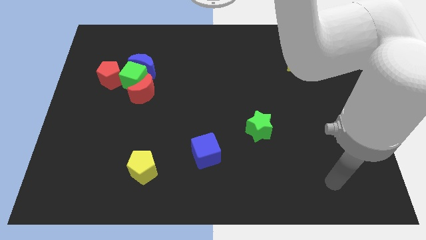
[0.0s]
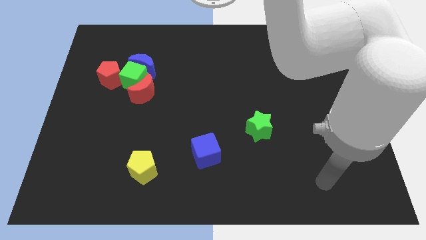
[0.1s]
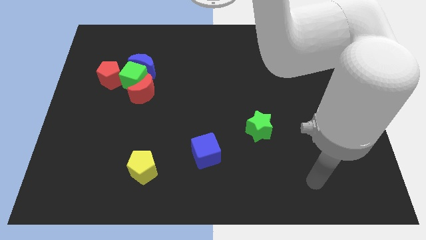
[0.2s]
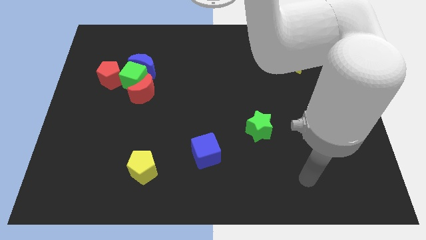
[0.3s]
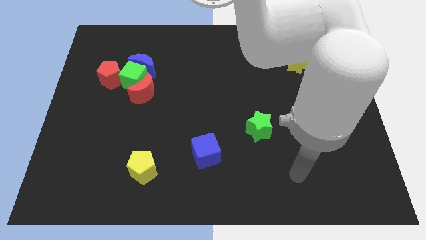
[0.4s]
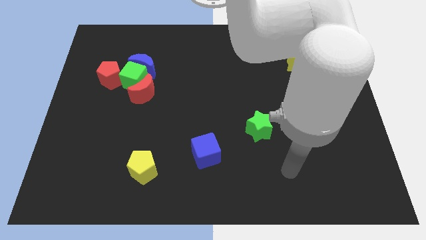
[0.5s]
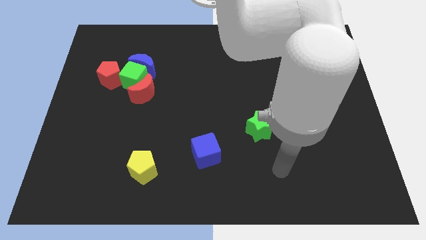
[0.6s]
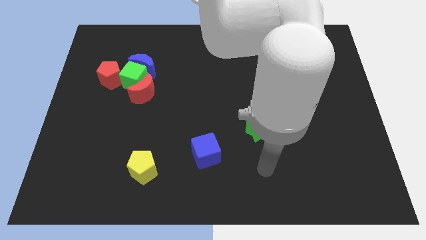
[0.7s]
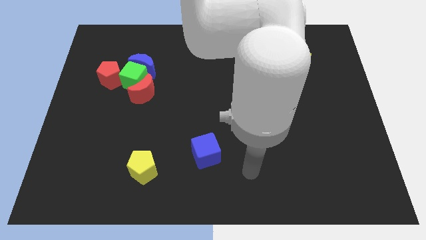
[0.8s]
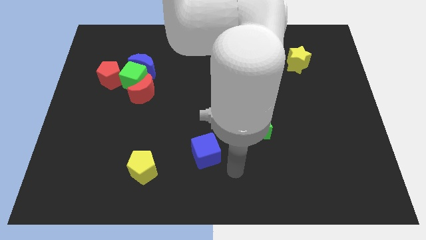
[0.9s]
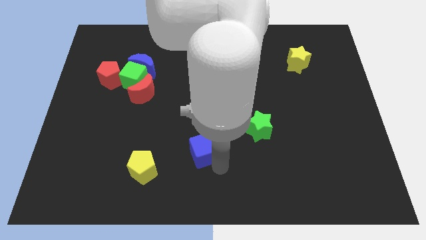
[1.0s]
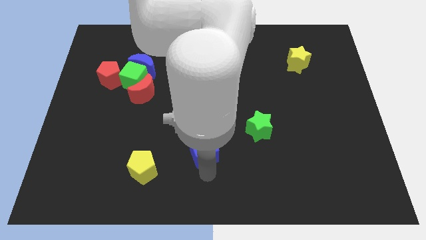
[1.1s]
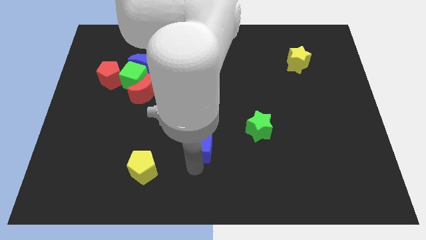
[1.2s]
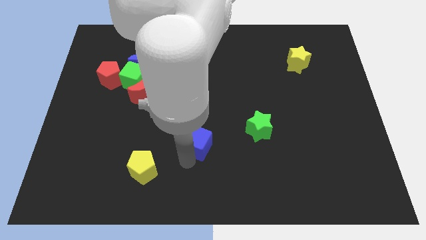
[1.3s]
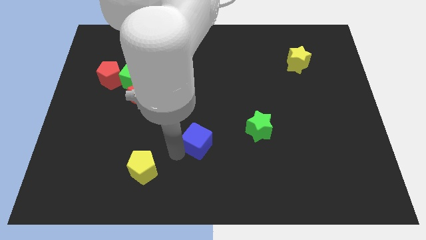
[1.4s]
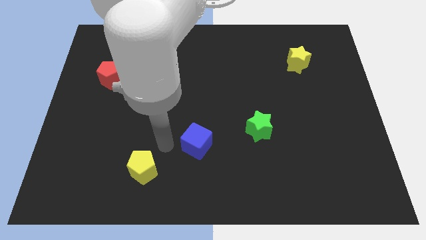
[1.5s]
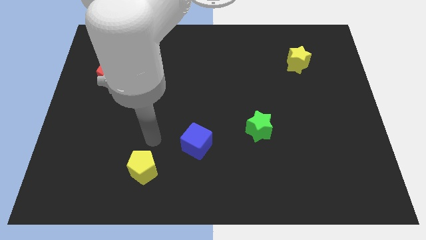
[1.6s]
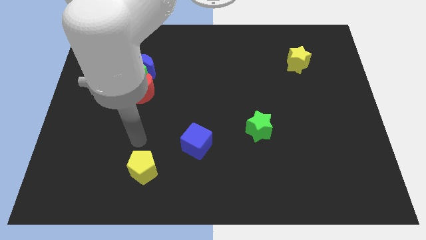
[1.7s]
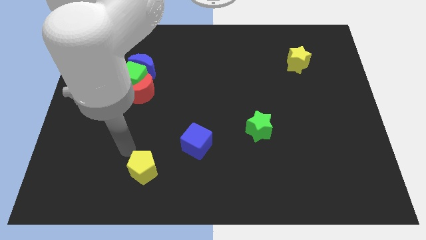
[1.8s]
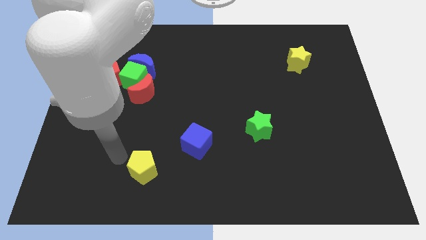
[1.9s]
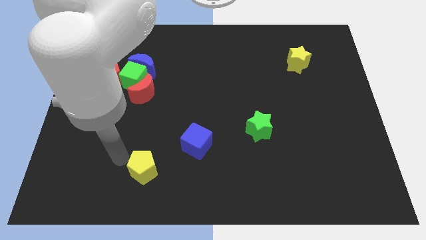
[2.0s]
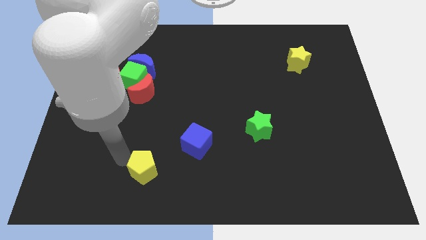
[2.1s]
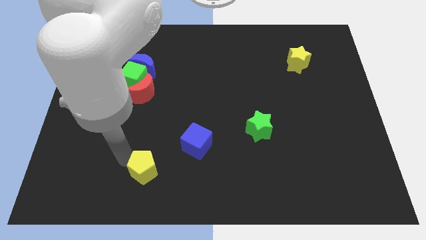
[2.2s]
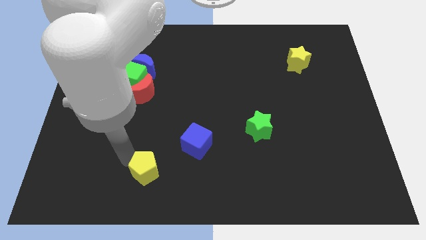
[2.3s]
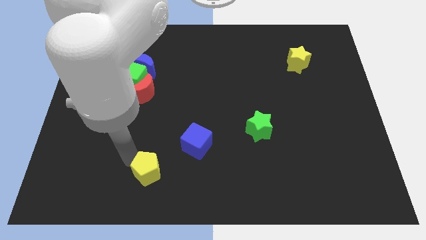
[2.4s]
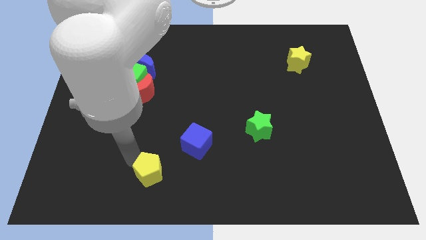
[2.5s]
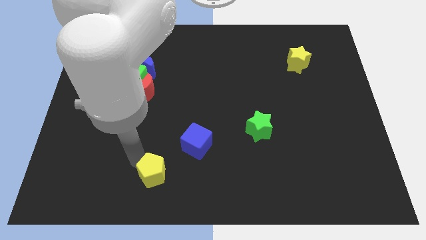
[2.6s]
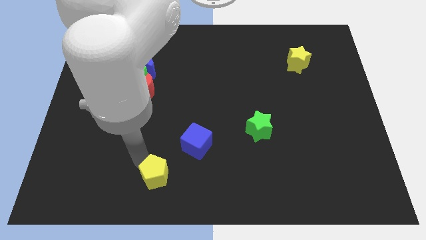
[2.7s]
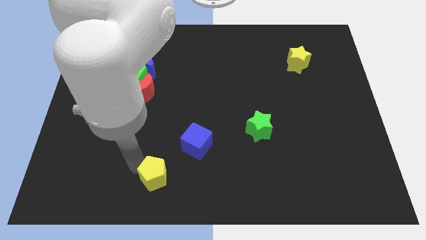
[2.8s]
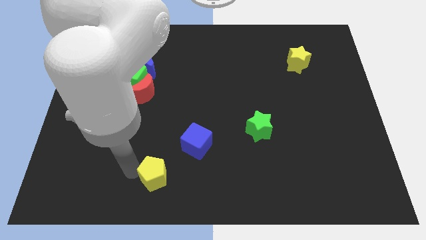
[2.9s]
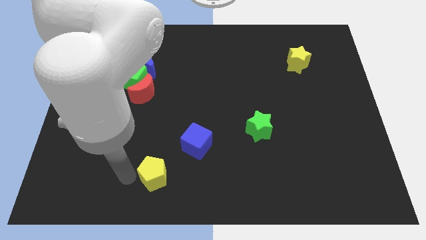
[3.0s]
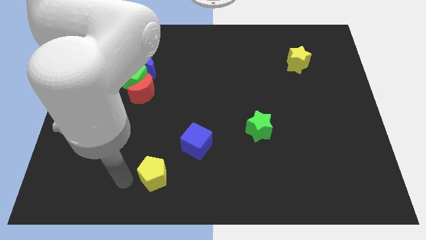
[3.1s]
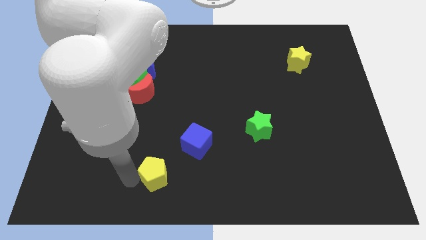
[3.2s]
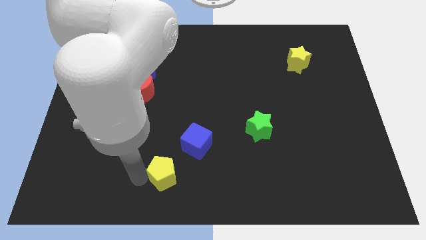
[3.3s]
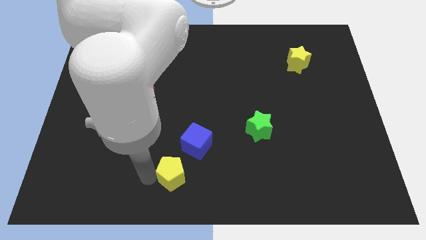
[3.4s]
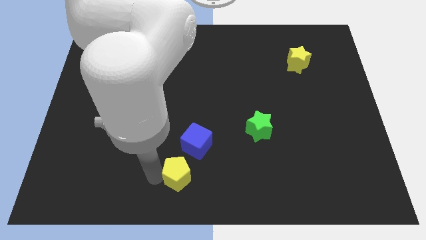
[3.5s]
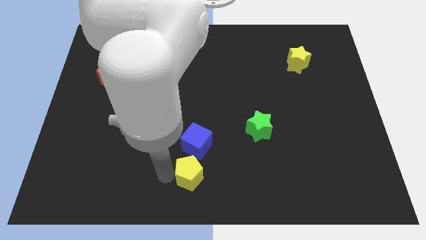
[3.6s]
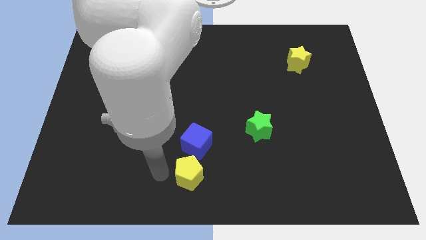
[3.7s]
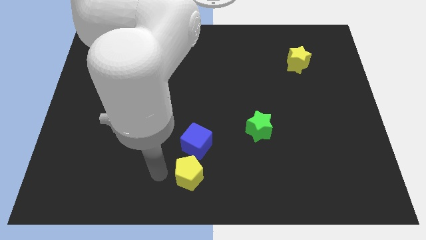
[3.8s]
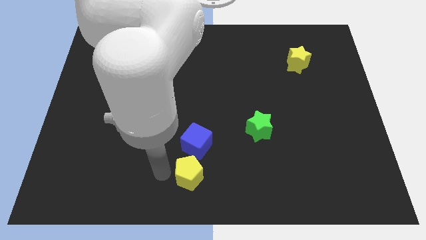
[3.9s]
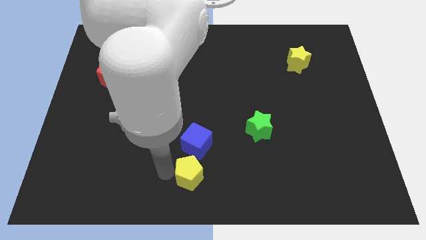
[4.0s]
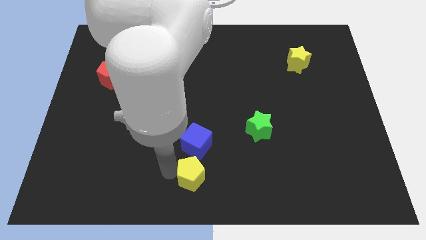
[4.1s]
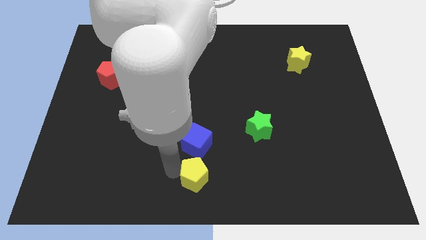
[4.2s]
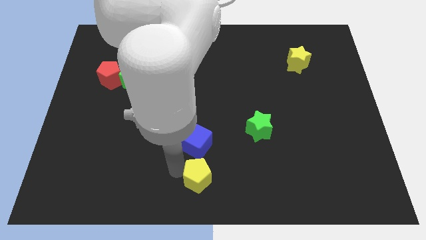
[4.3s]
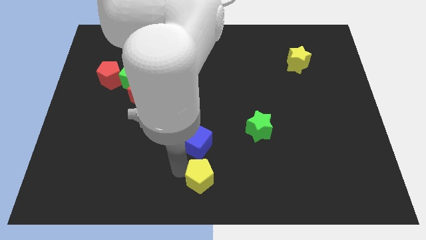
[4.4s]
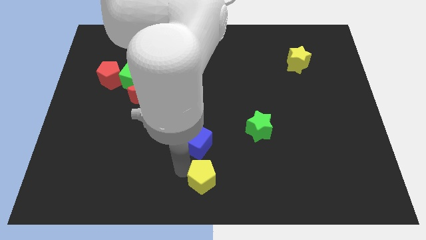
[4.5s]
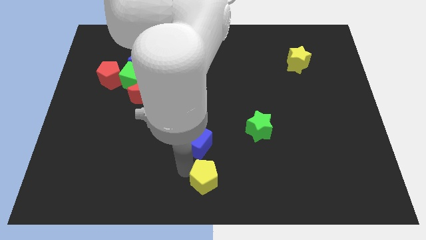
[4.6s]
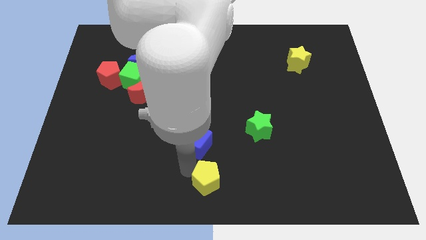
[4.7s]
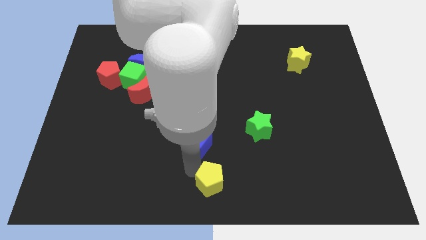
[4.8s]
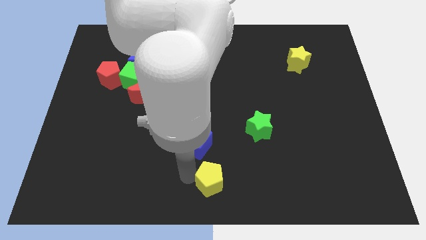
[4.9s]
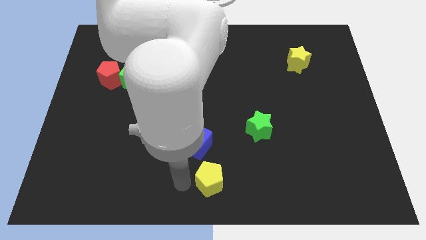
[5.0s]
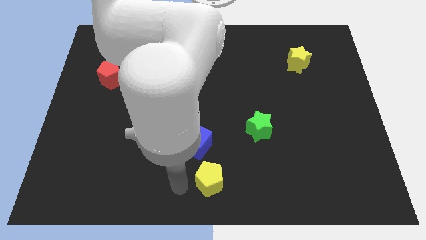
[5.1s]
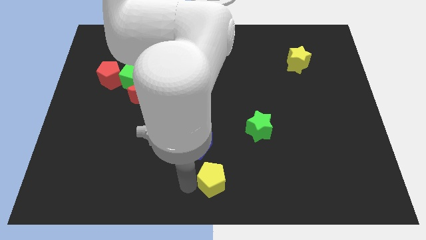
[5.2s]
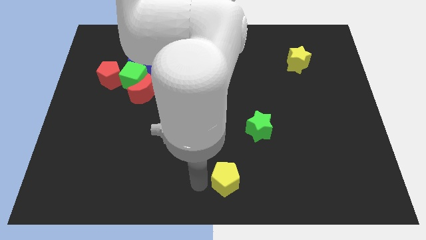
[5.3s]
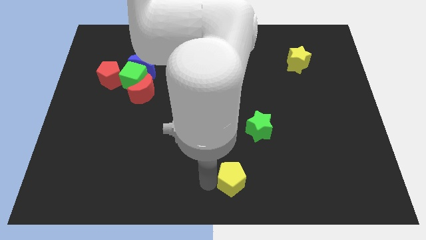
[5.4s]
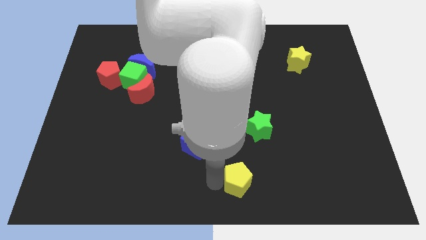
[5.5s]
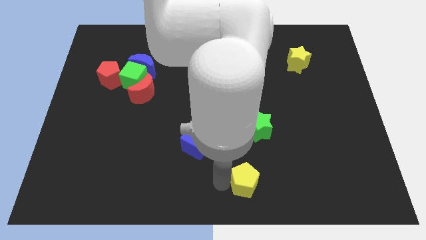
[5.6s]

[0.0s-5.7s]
move the yellow pentagon to the right

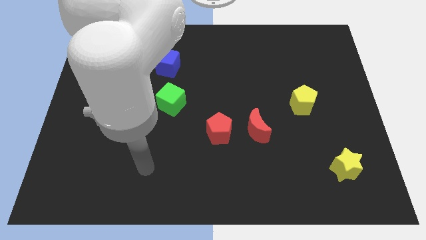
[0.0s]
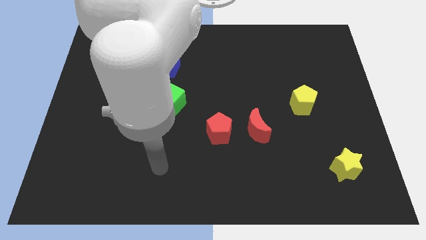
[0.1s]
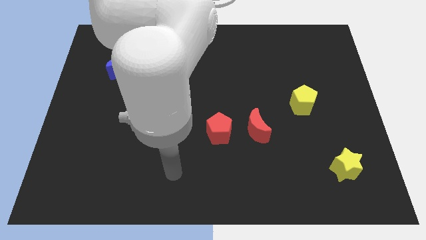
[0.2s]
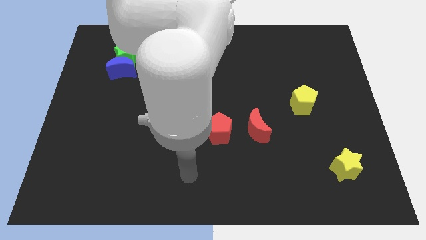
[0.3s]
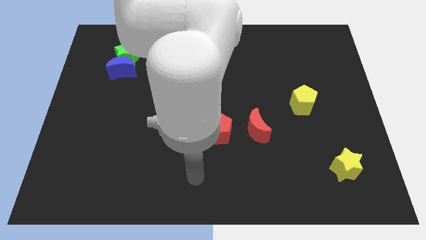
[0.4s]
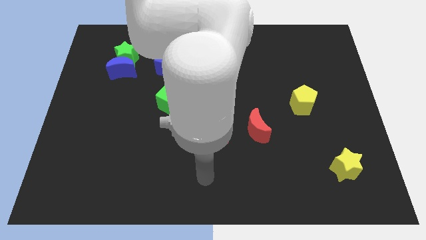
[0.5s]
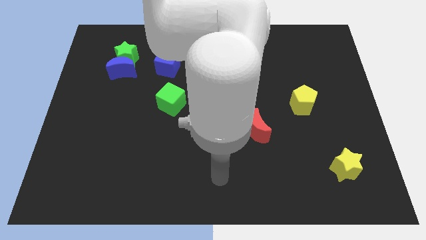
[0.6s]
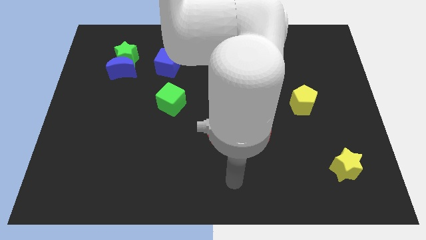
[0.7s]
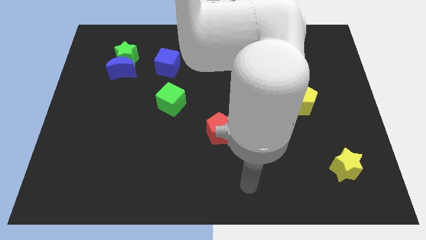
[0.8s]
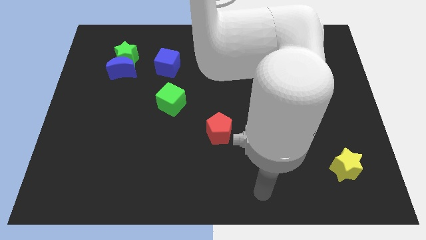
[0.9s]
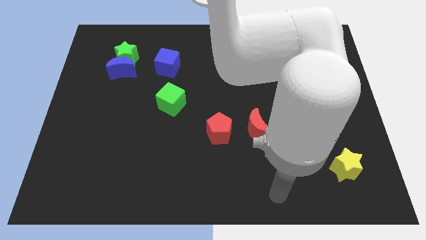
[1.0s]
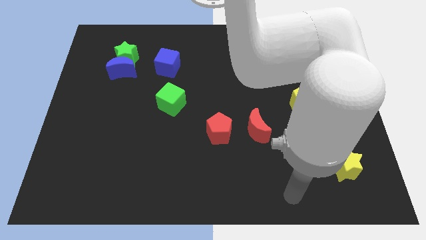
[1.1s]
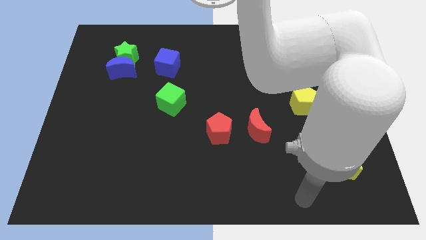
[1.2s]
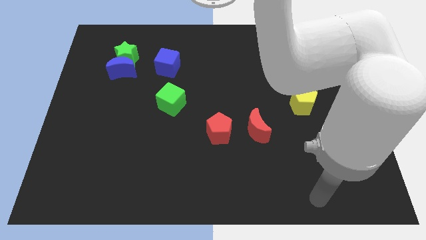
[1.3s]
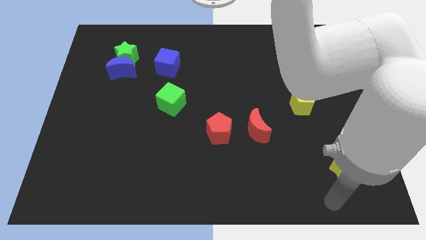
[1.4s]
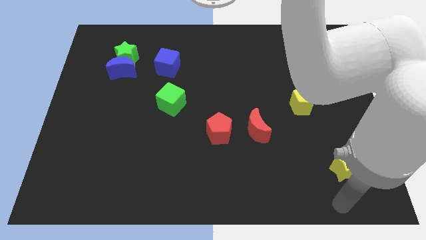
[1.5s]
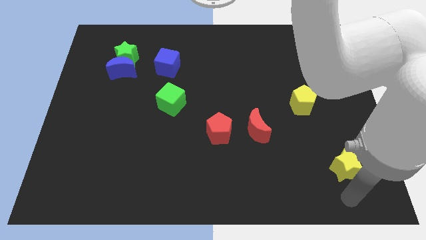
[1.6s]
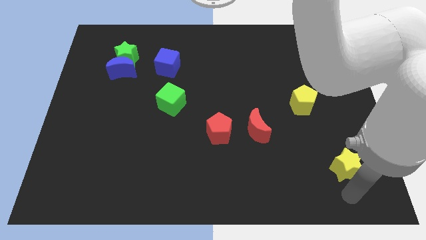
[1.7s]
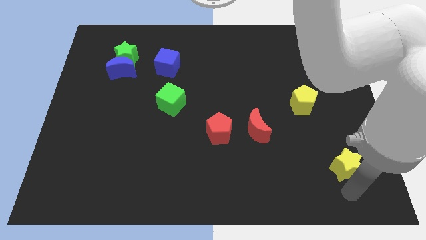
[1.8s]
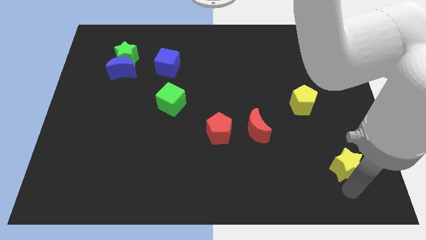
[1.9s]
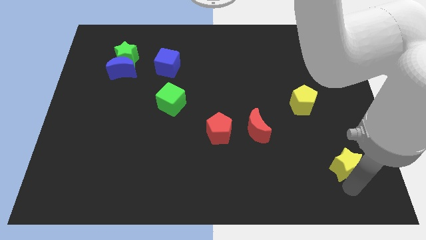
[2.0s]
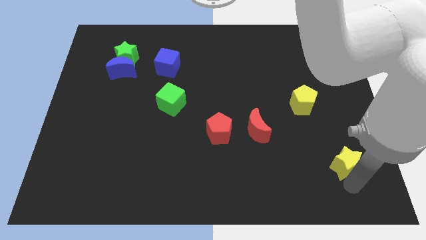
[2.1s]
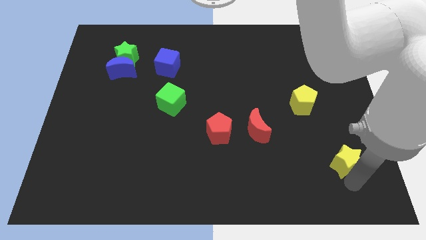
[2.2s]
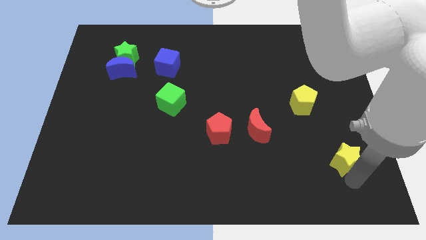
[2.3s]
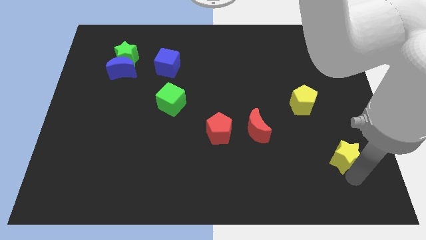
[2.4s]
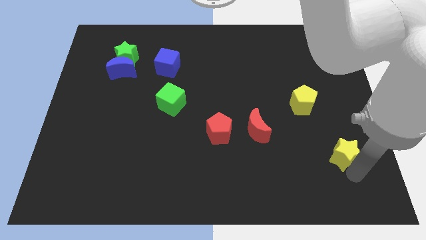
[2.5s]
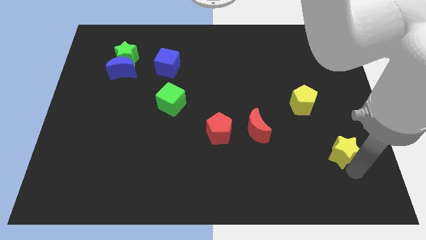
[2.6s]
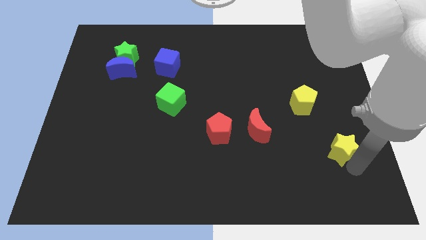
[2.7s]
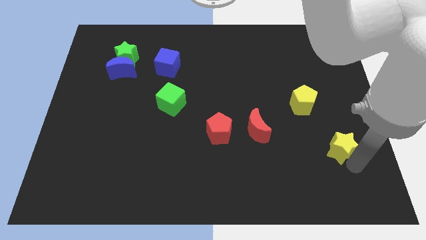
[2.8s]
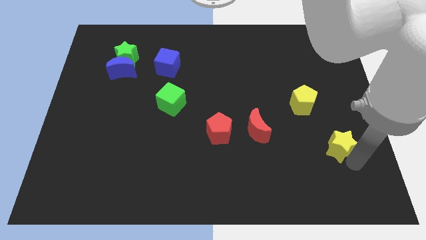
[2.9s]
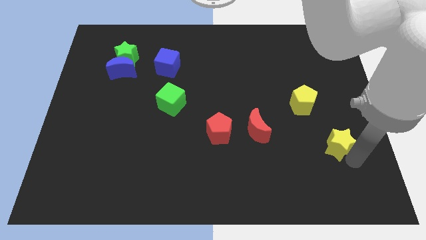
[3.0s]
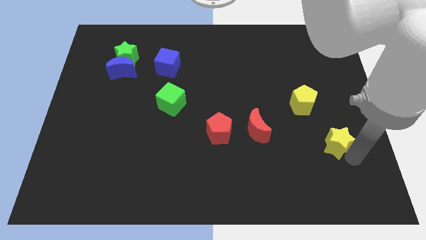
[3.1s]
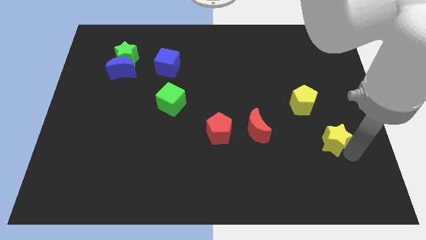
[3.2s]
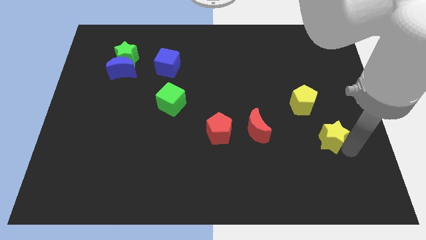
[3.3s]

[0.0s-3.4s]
push the yellow star somewhat upwards
